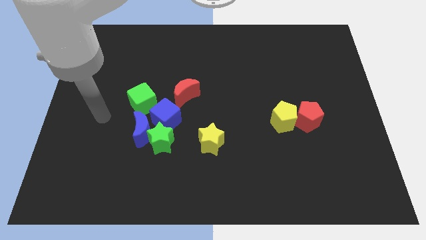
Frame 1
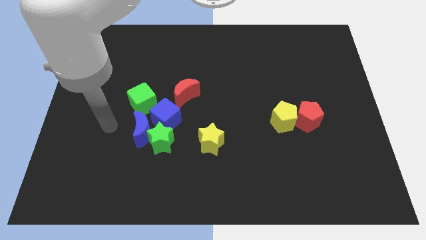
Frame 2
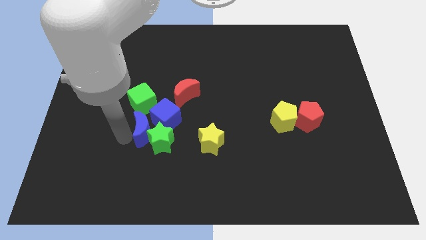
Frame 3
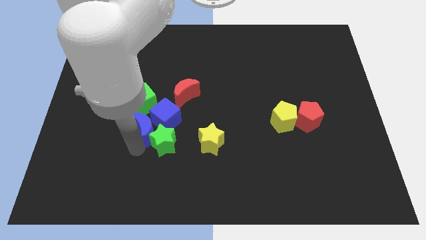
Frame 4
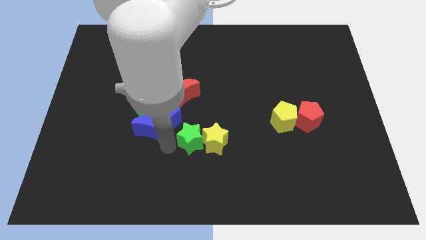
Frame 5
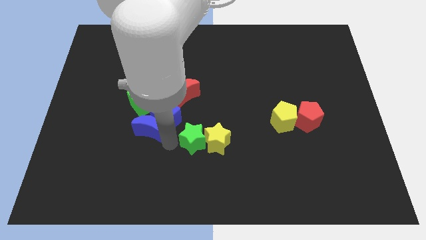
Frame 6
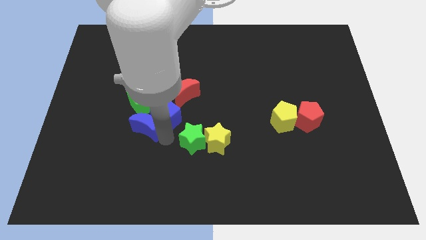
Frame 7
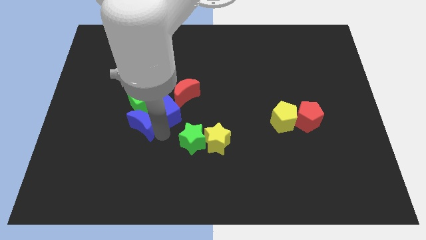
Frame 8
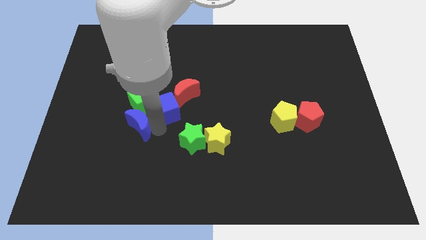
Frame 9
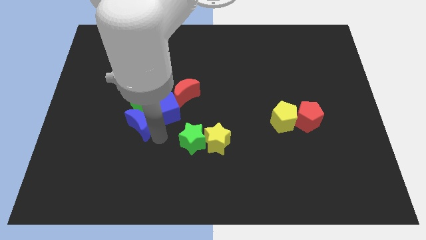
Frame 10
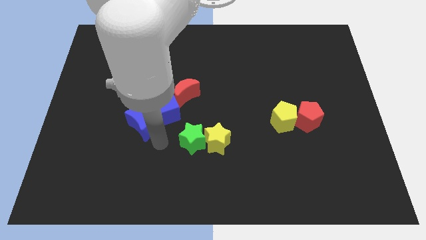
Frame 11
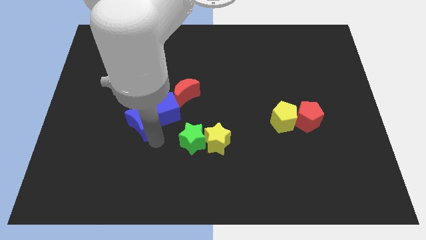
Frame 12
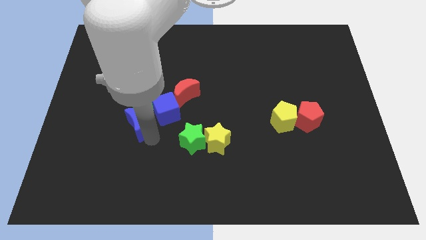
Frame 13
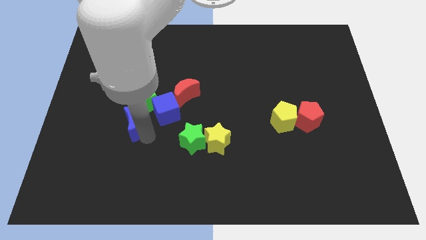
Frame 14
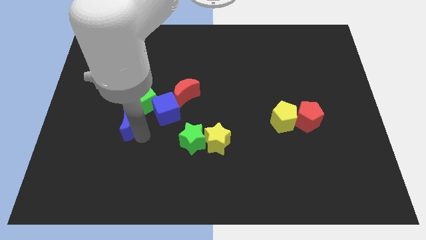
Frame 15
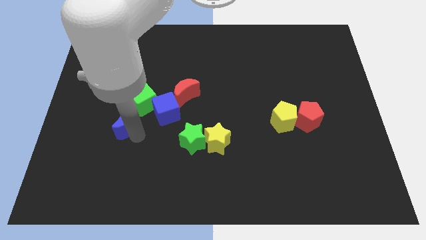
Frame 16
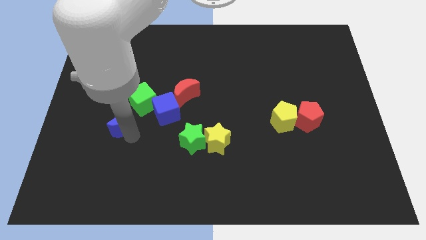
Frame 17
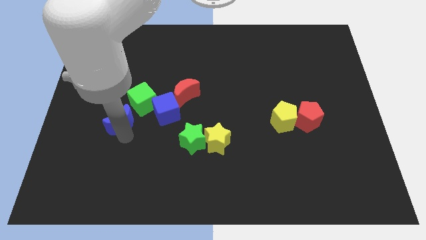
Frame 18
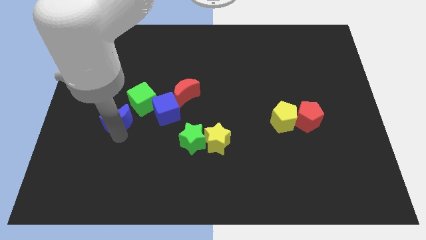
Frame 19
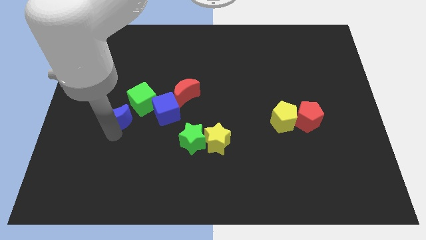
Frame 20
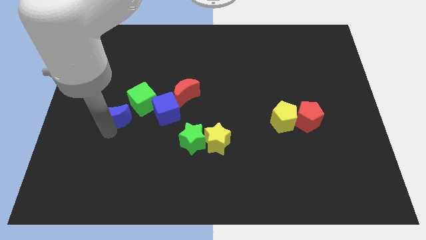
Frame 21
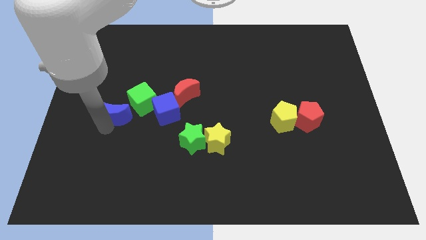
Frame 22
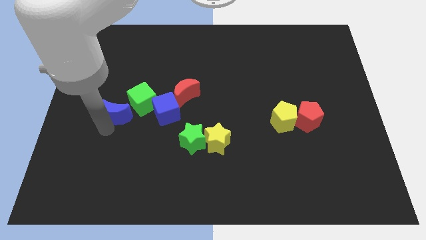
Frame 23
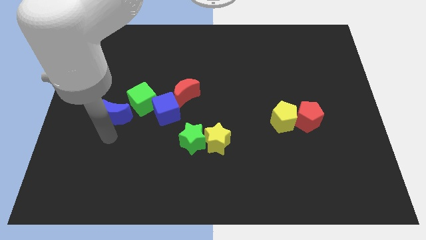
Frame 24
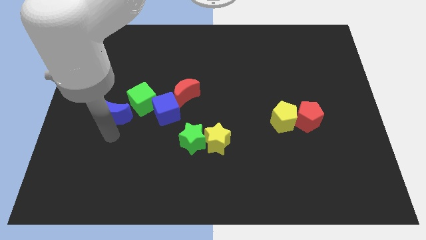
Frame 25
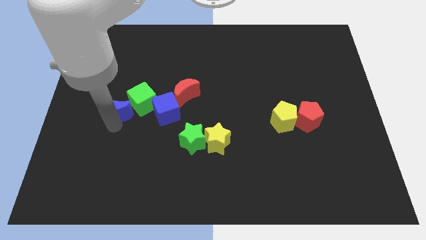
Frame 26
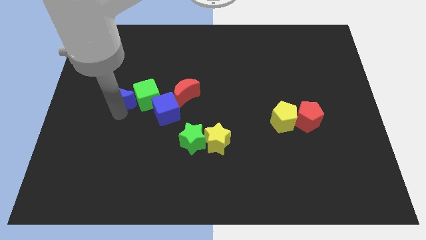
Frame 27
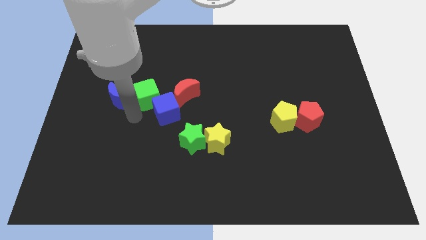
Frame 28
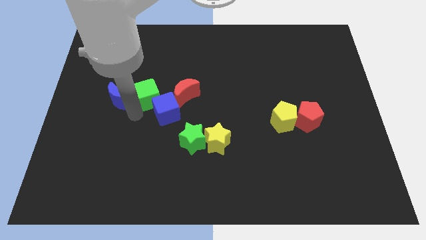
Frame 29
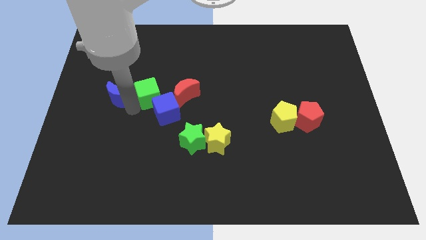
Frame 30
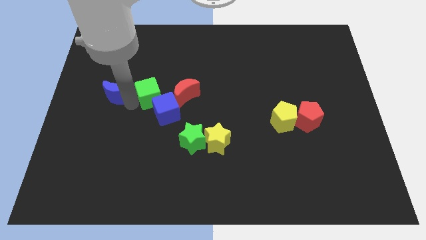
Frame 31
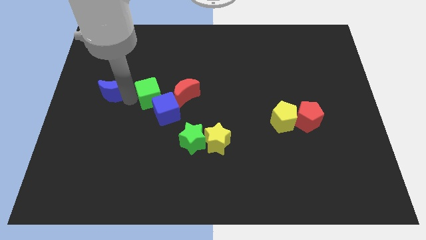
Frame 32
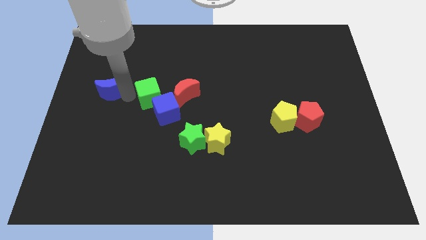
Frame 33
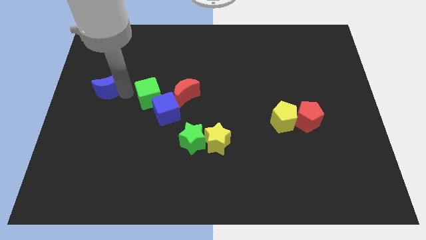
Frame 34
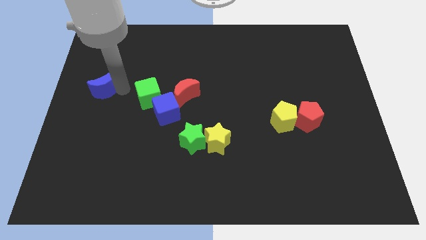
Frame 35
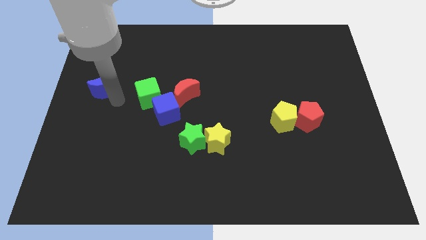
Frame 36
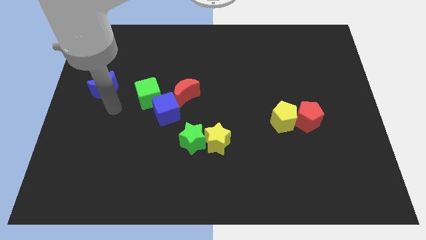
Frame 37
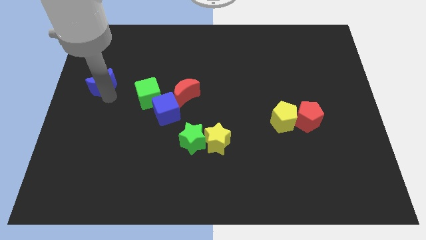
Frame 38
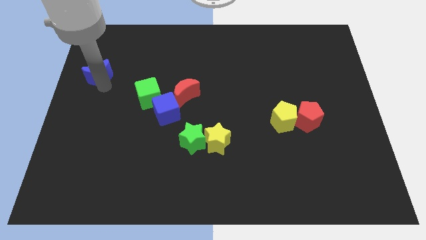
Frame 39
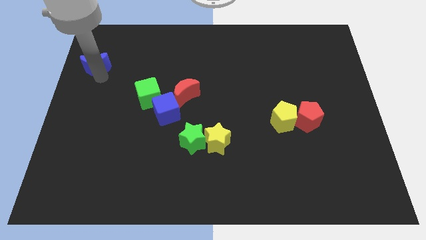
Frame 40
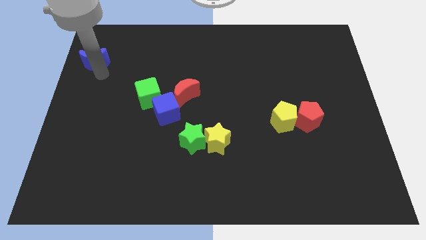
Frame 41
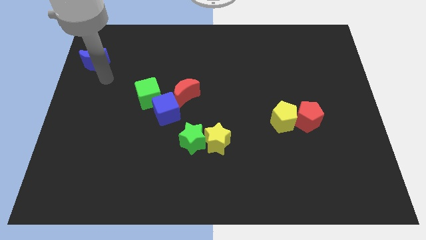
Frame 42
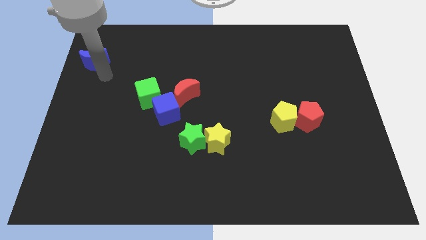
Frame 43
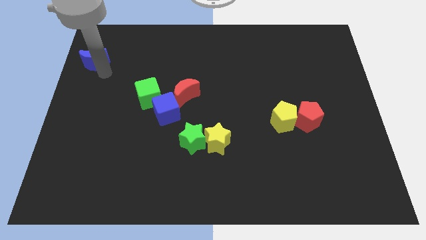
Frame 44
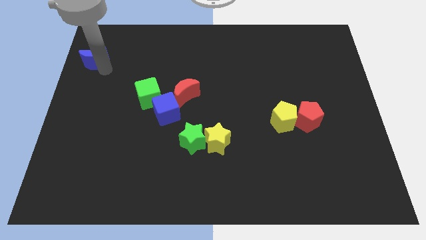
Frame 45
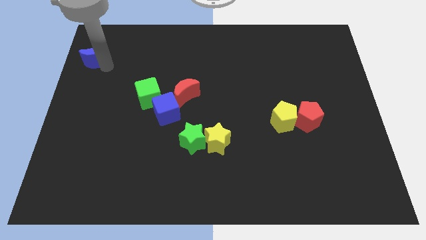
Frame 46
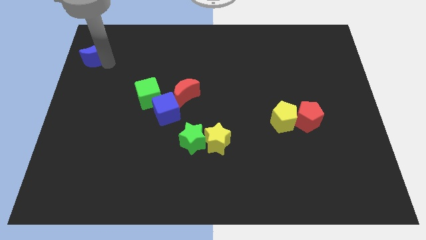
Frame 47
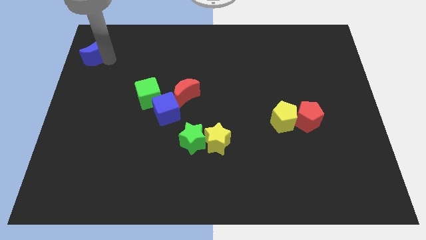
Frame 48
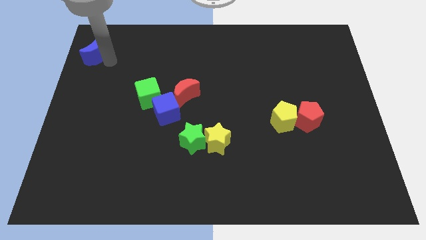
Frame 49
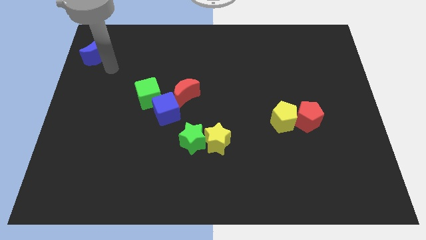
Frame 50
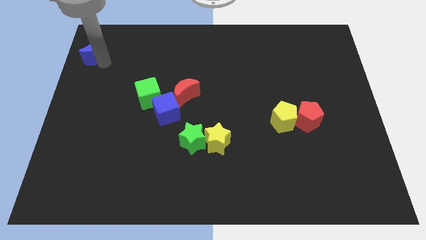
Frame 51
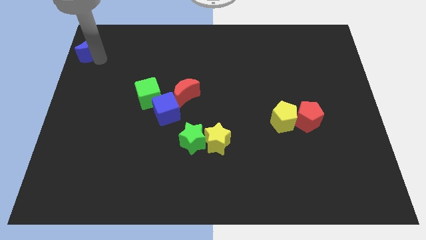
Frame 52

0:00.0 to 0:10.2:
push the blue moon to the top left corner

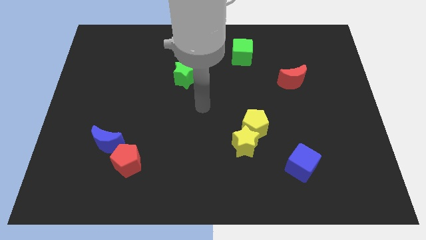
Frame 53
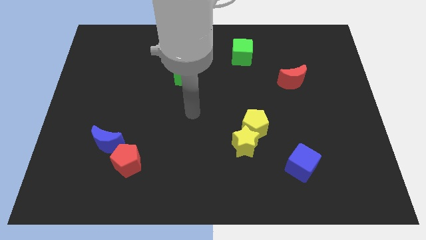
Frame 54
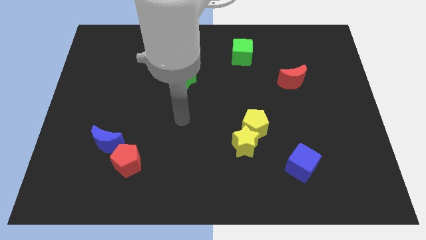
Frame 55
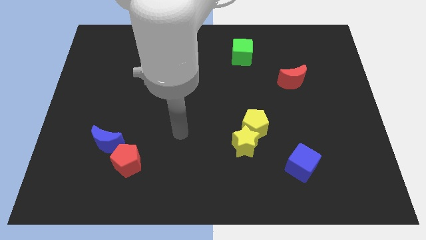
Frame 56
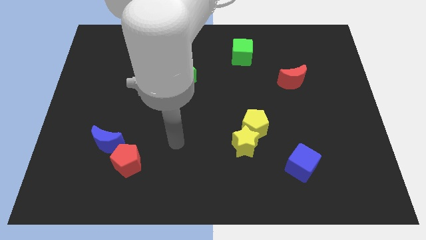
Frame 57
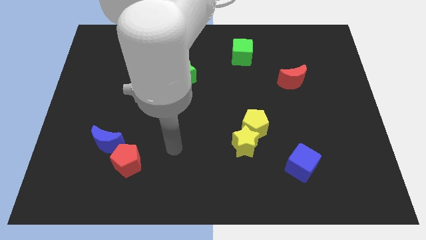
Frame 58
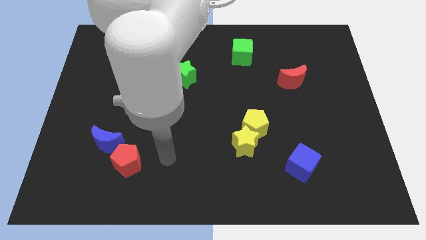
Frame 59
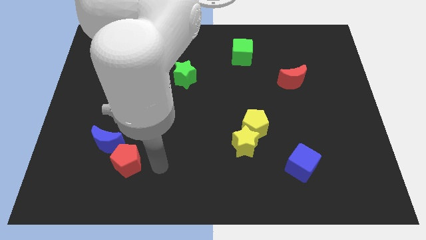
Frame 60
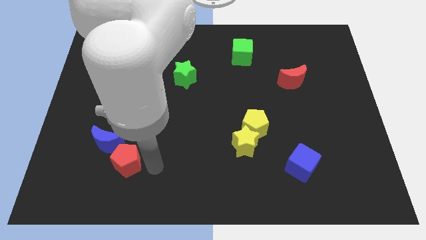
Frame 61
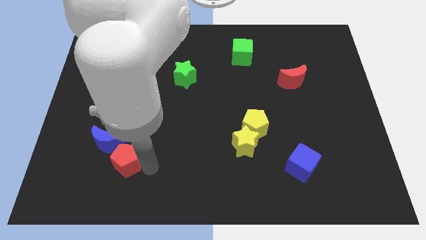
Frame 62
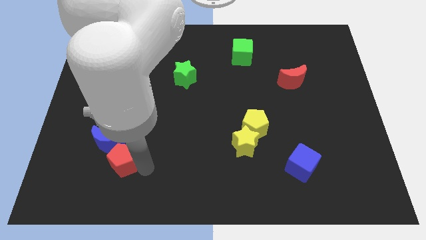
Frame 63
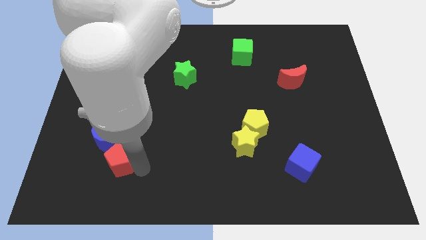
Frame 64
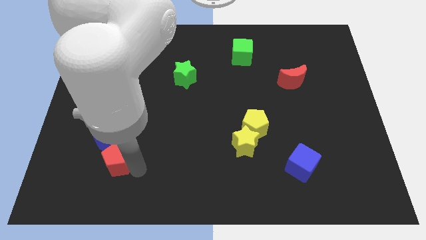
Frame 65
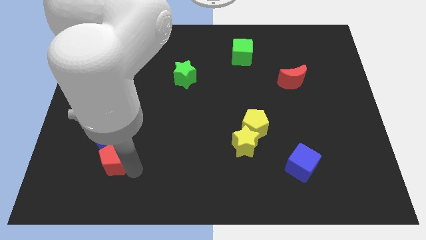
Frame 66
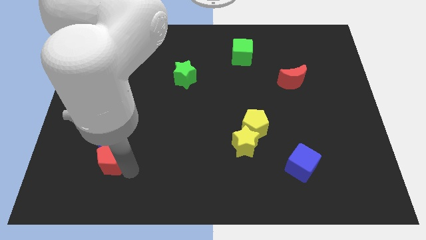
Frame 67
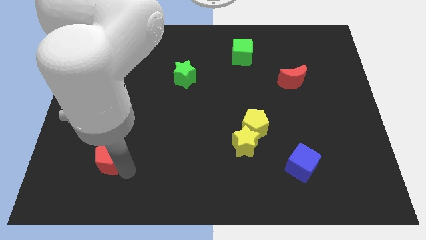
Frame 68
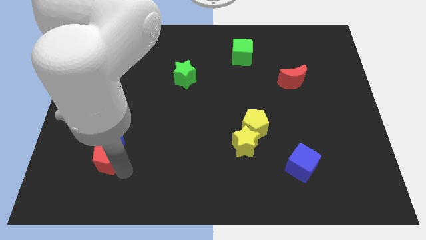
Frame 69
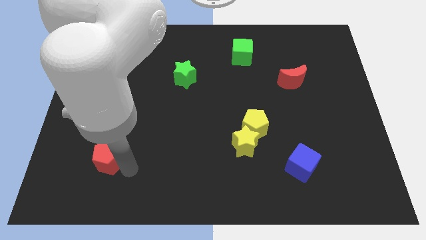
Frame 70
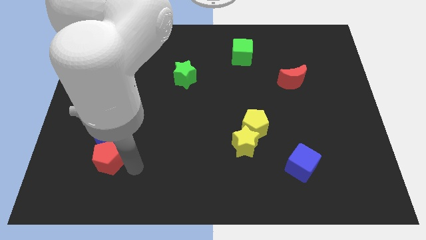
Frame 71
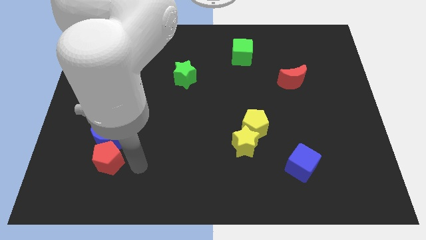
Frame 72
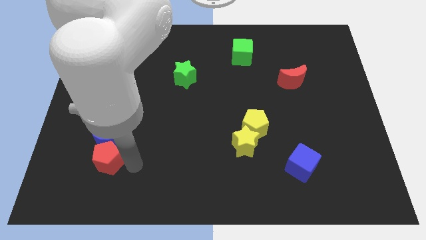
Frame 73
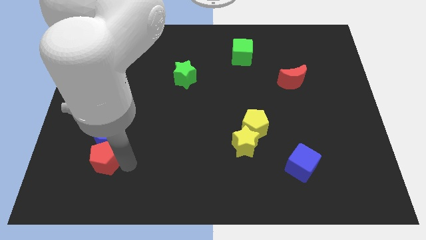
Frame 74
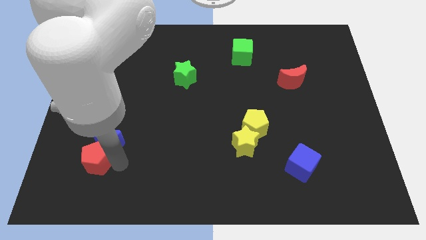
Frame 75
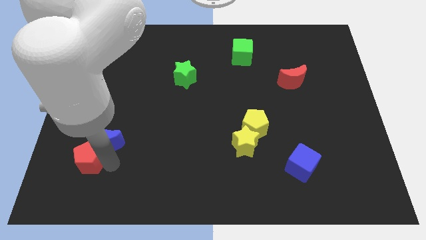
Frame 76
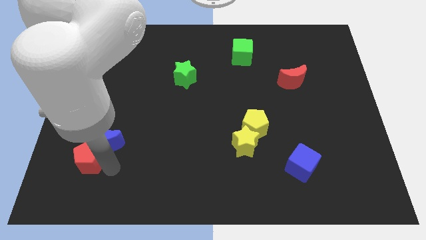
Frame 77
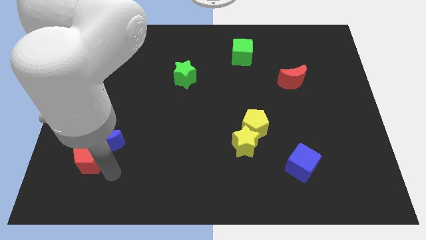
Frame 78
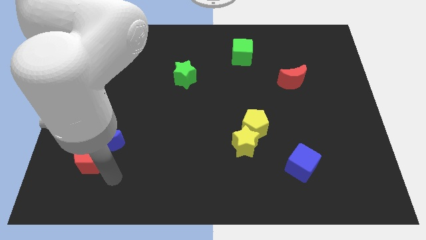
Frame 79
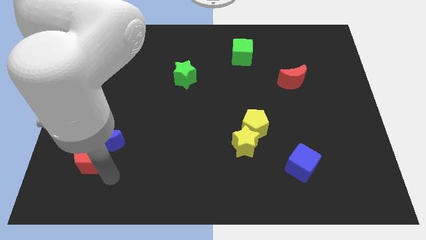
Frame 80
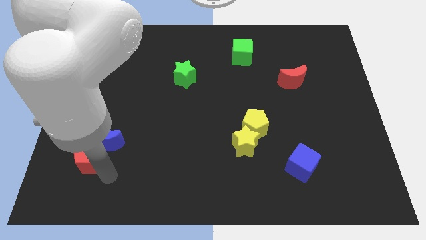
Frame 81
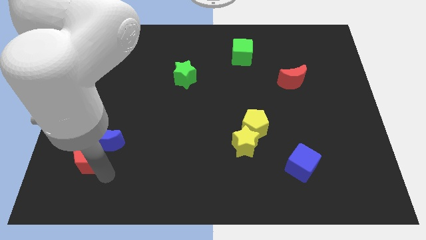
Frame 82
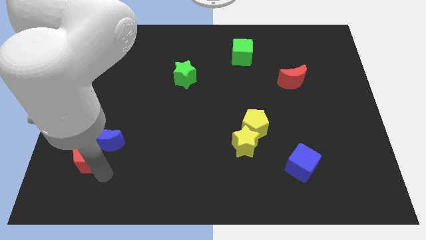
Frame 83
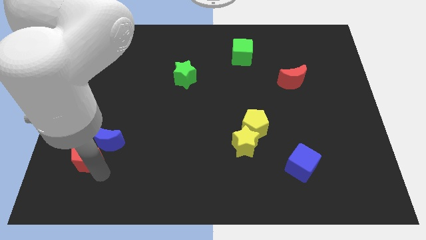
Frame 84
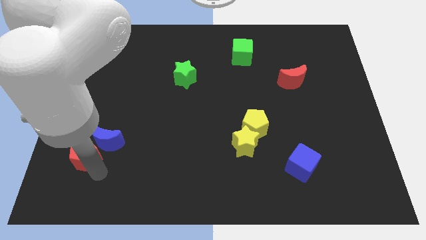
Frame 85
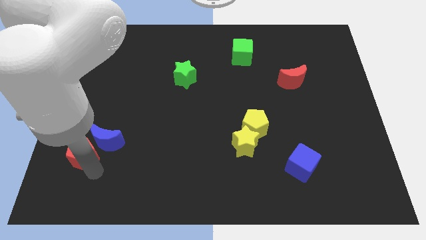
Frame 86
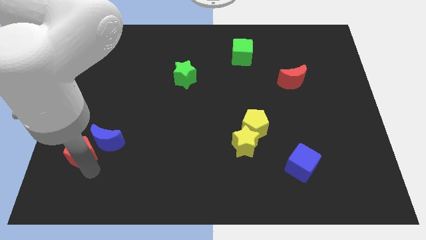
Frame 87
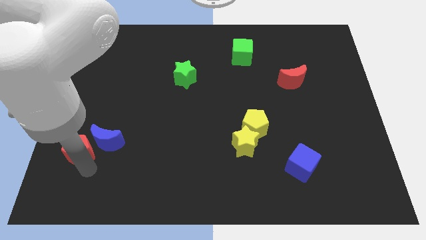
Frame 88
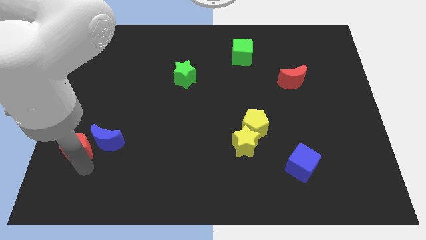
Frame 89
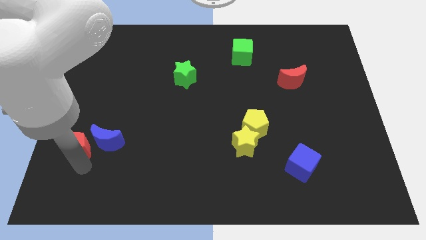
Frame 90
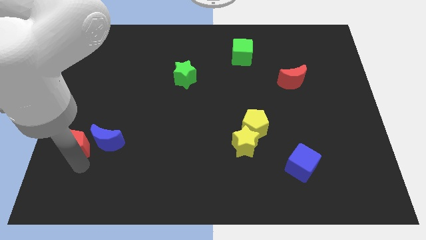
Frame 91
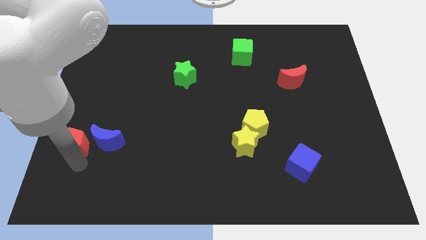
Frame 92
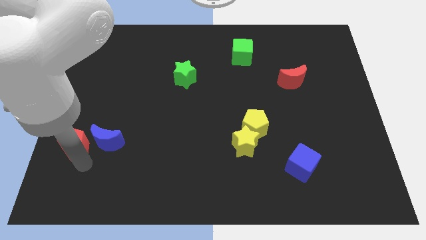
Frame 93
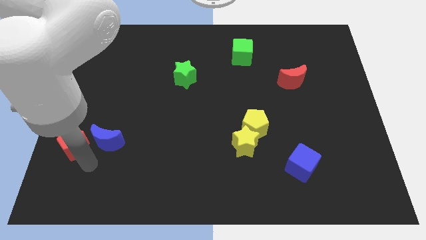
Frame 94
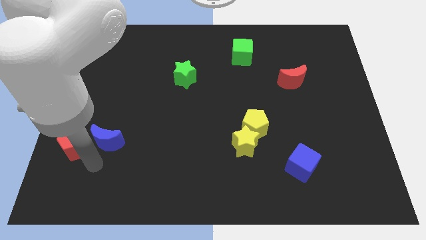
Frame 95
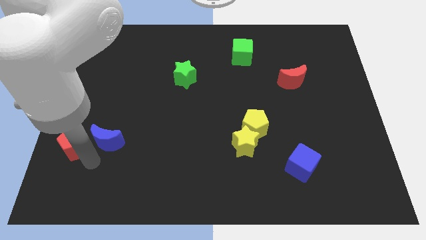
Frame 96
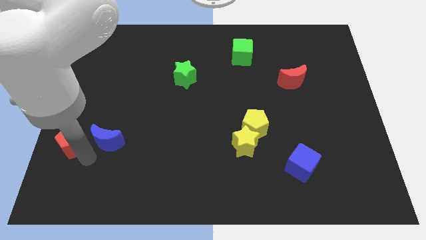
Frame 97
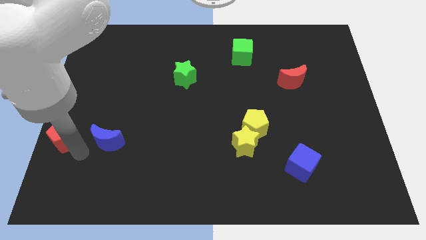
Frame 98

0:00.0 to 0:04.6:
push the red pentagon to the left side of the board
